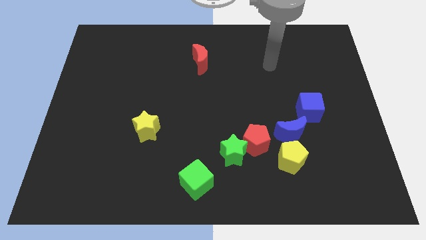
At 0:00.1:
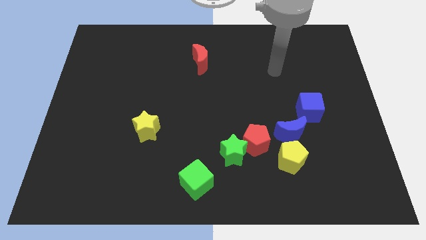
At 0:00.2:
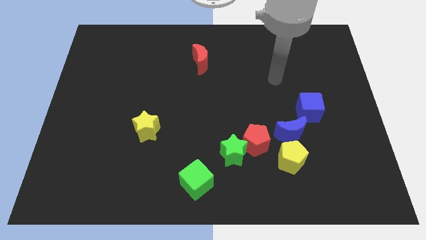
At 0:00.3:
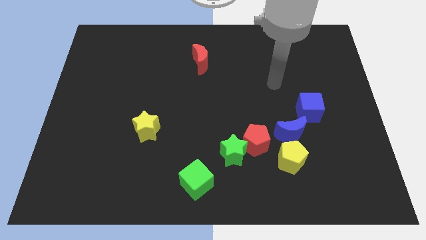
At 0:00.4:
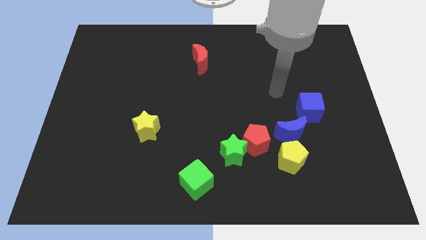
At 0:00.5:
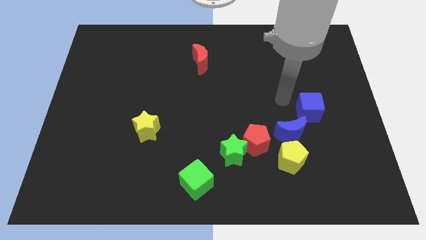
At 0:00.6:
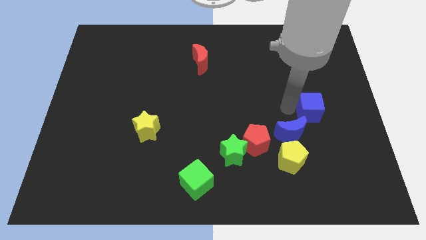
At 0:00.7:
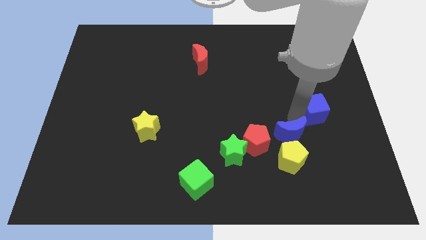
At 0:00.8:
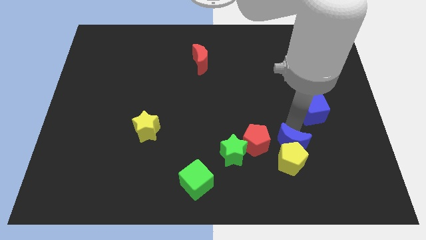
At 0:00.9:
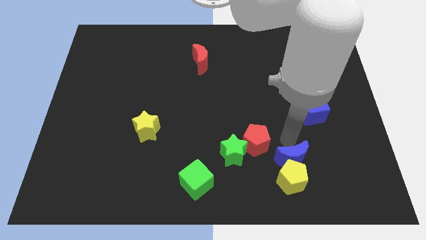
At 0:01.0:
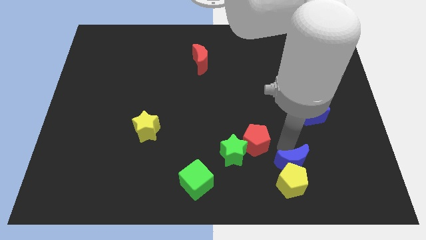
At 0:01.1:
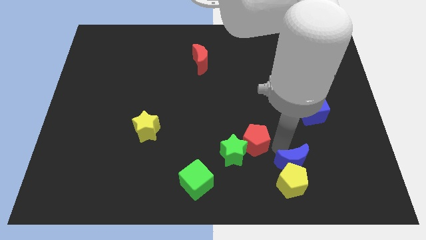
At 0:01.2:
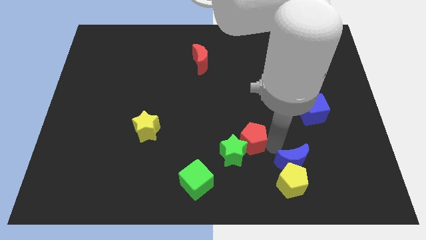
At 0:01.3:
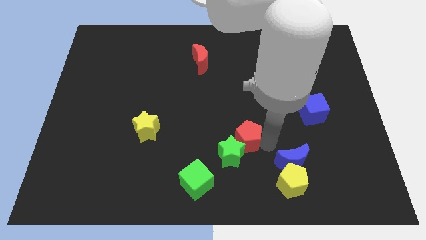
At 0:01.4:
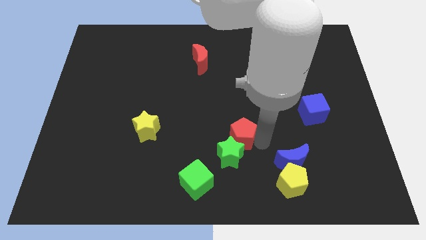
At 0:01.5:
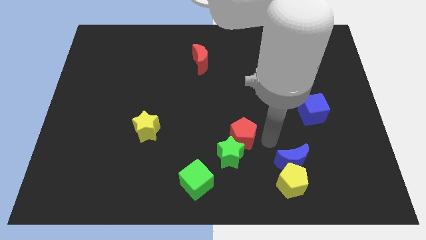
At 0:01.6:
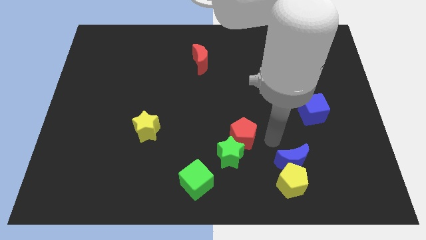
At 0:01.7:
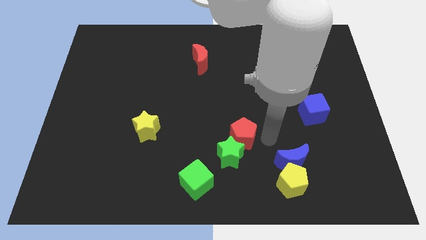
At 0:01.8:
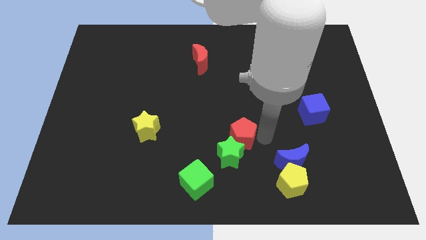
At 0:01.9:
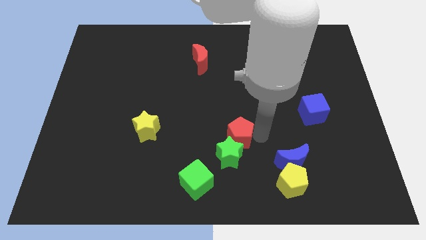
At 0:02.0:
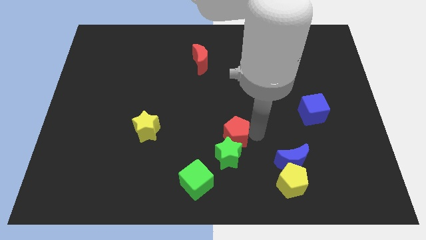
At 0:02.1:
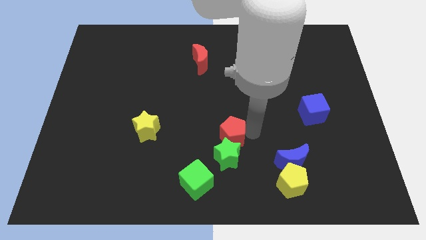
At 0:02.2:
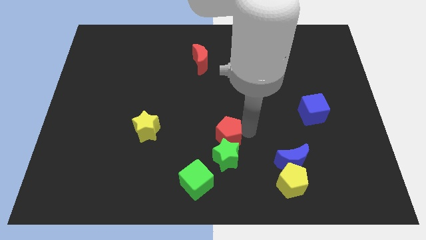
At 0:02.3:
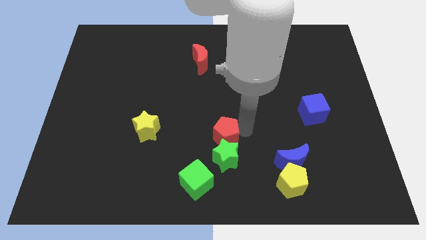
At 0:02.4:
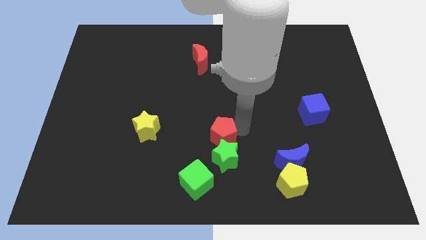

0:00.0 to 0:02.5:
slide the red pentagon somewhat to the left

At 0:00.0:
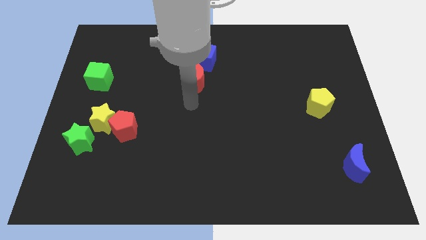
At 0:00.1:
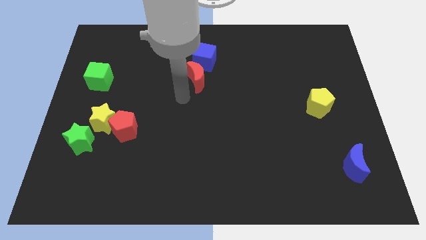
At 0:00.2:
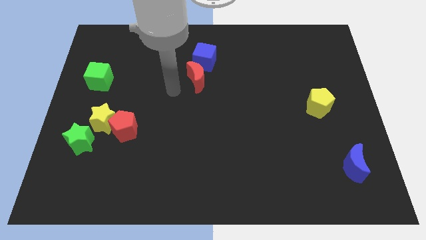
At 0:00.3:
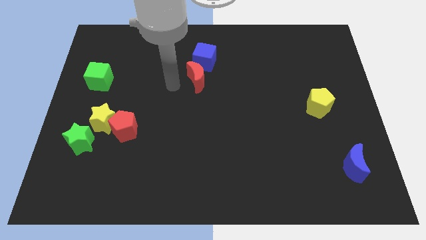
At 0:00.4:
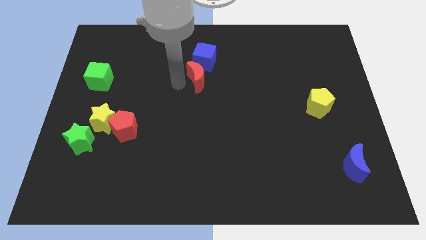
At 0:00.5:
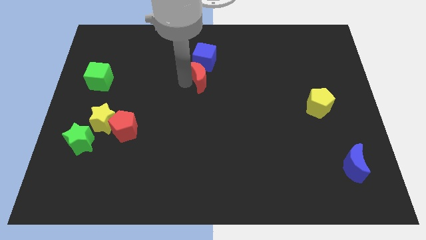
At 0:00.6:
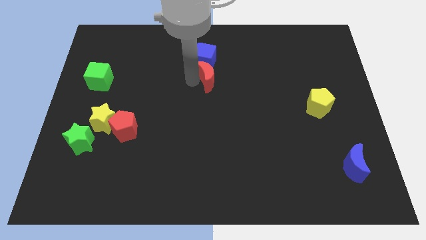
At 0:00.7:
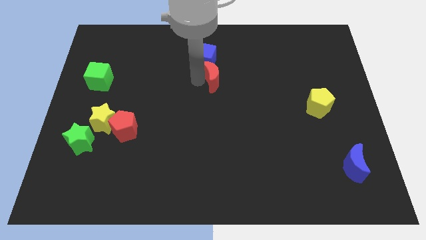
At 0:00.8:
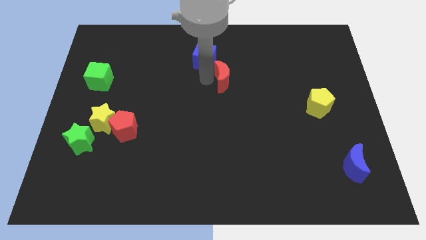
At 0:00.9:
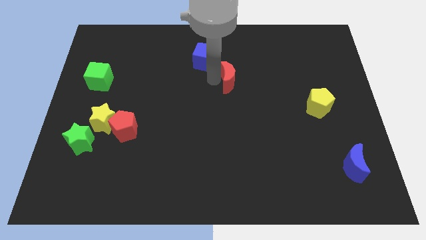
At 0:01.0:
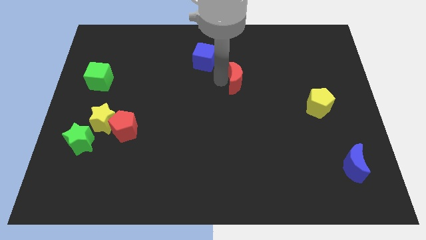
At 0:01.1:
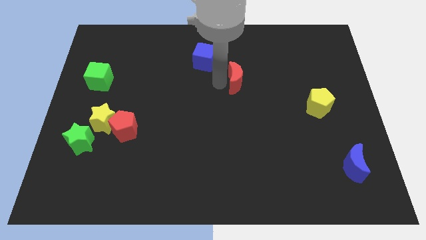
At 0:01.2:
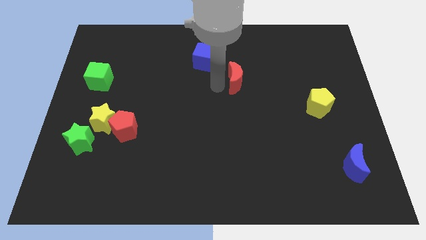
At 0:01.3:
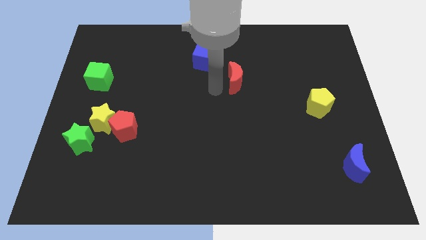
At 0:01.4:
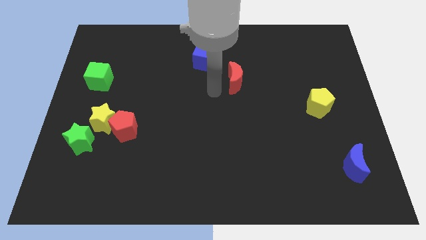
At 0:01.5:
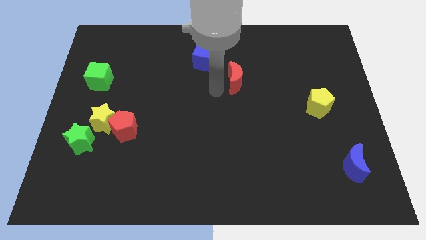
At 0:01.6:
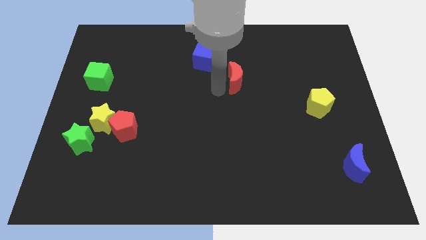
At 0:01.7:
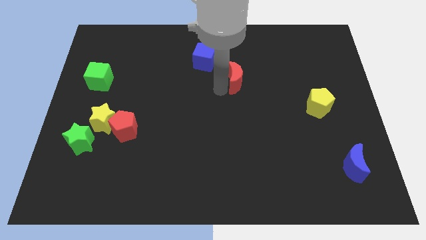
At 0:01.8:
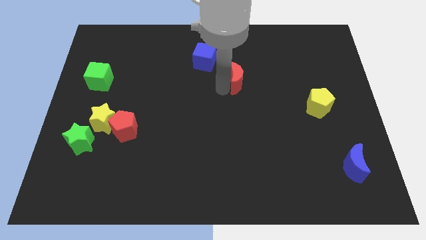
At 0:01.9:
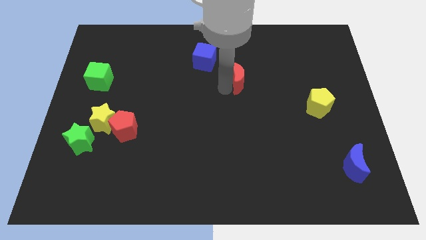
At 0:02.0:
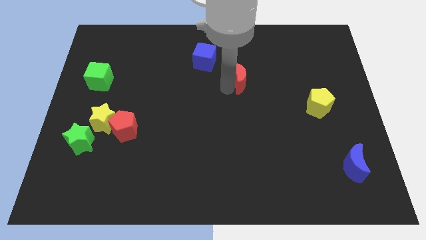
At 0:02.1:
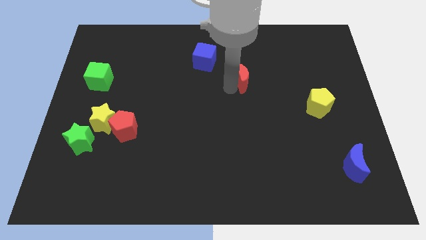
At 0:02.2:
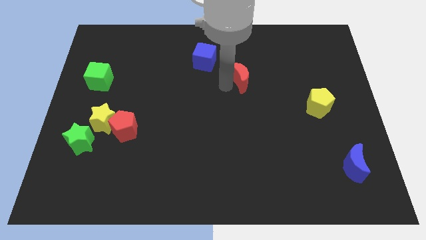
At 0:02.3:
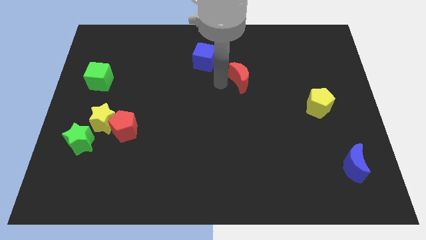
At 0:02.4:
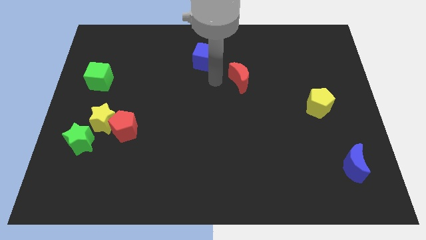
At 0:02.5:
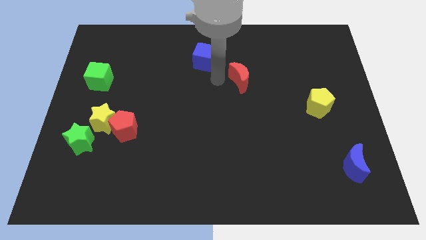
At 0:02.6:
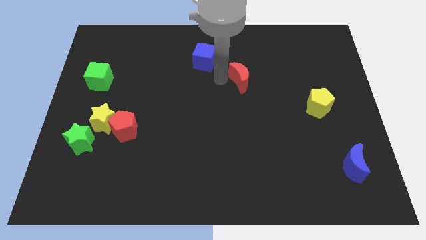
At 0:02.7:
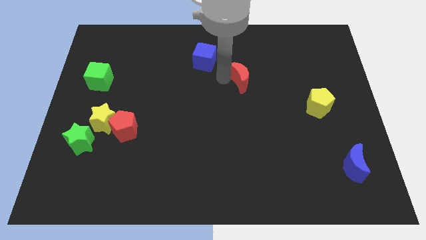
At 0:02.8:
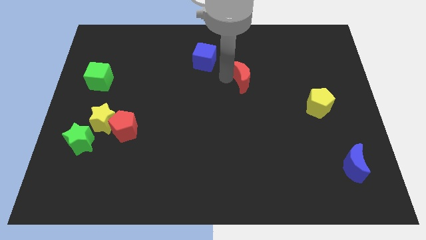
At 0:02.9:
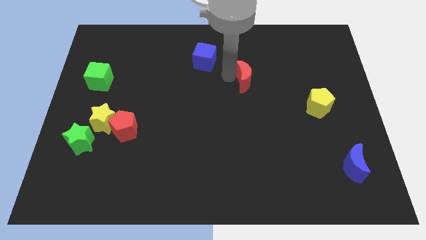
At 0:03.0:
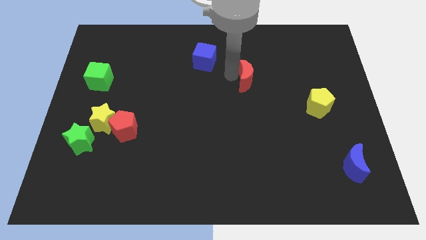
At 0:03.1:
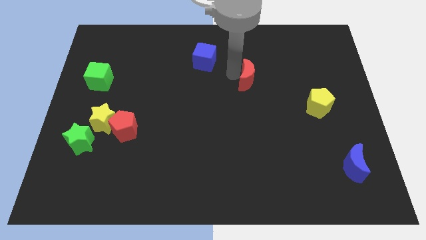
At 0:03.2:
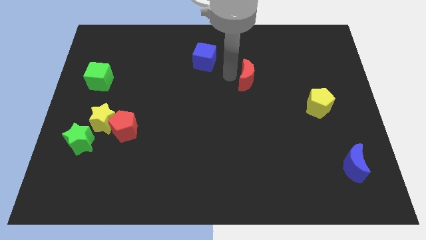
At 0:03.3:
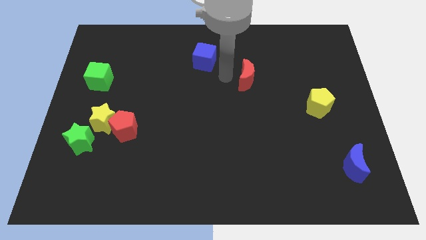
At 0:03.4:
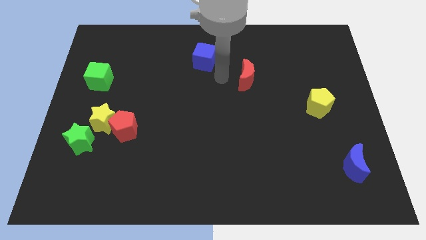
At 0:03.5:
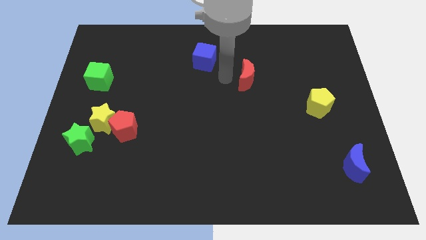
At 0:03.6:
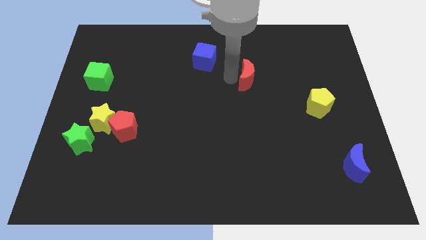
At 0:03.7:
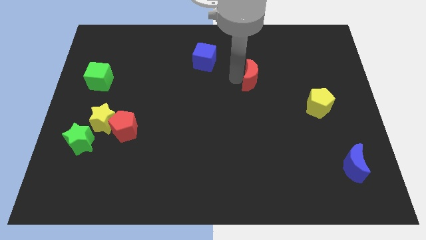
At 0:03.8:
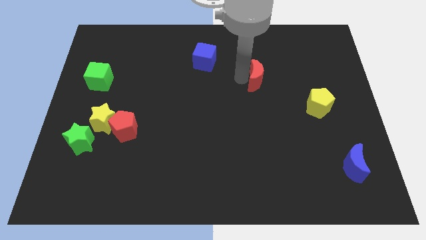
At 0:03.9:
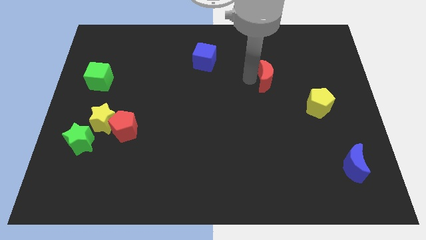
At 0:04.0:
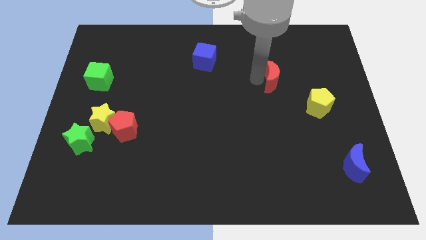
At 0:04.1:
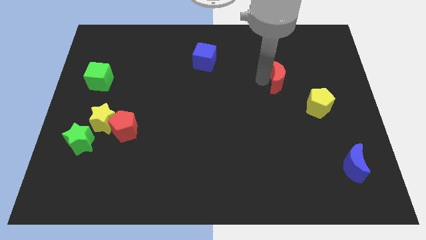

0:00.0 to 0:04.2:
move the red moon to the right

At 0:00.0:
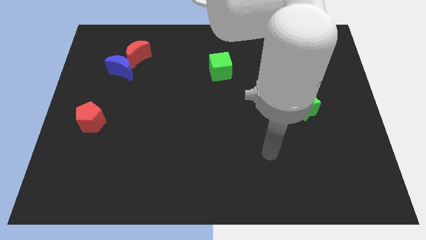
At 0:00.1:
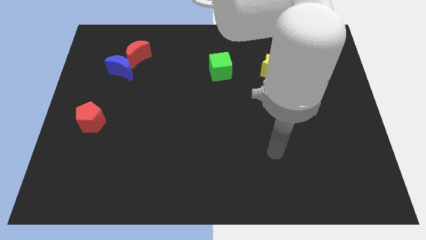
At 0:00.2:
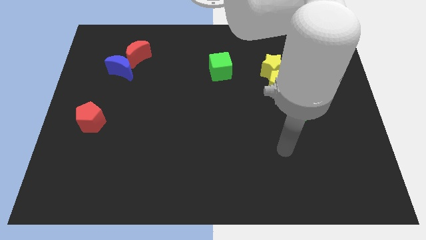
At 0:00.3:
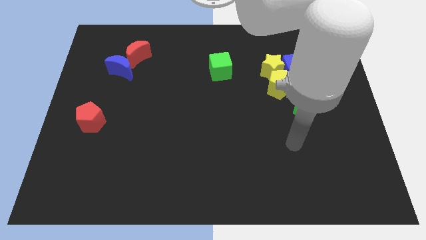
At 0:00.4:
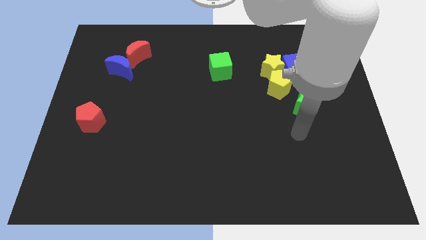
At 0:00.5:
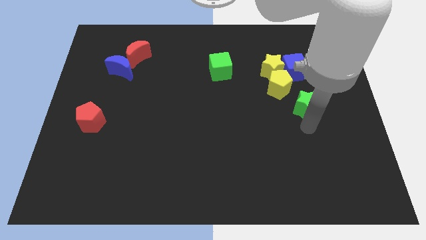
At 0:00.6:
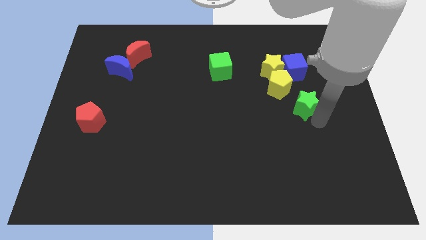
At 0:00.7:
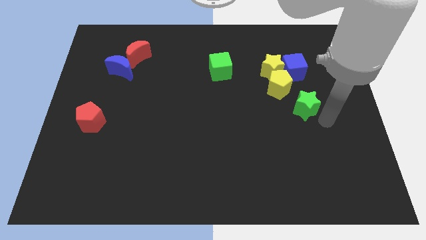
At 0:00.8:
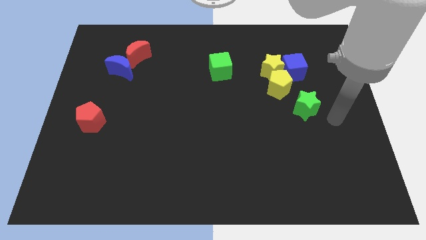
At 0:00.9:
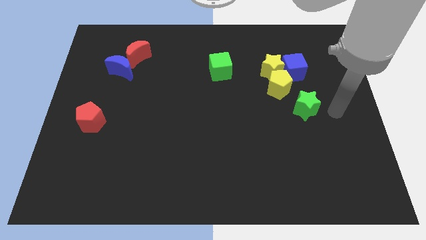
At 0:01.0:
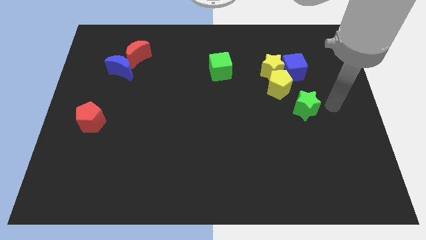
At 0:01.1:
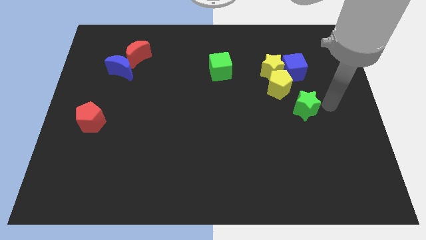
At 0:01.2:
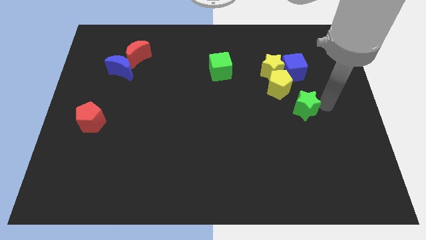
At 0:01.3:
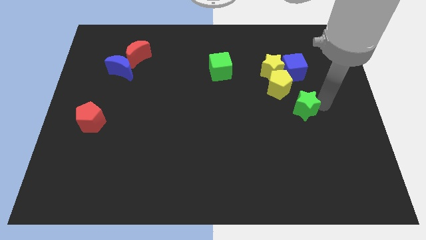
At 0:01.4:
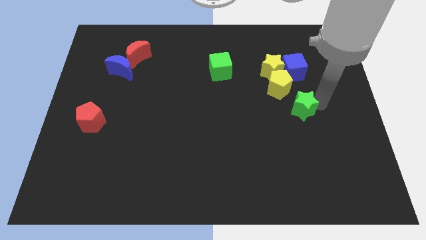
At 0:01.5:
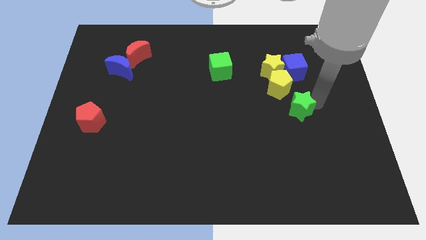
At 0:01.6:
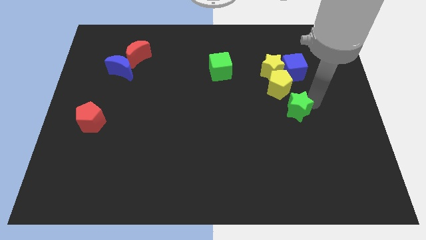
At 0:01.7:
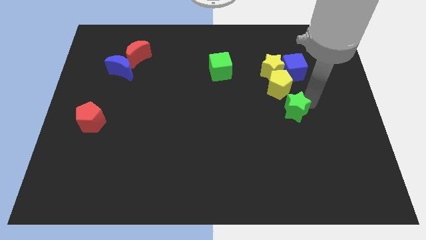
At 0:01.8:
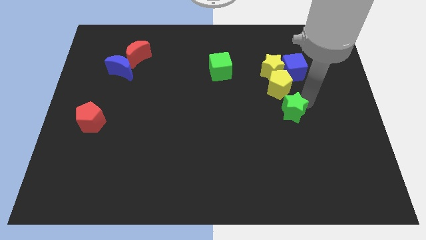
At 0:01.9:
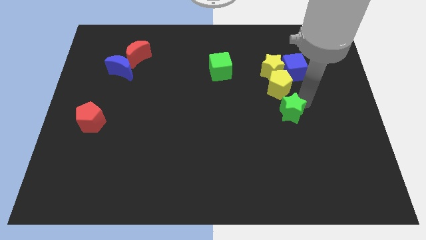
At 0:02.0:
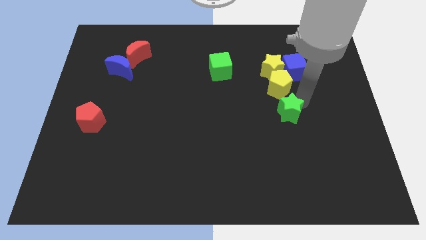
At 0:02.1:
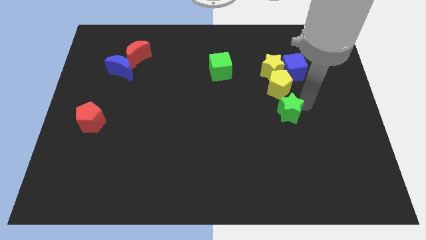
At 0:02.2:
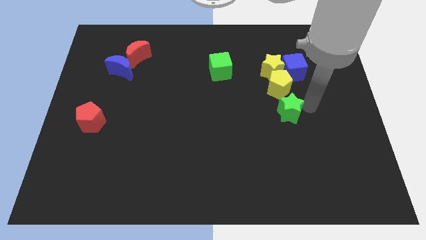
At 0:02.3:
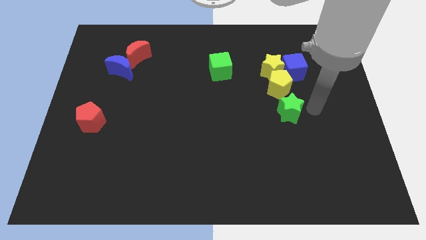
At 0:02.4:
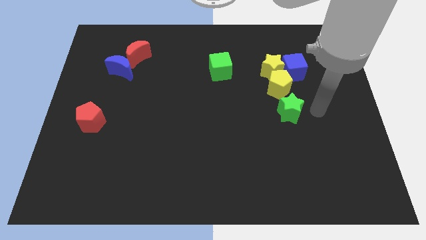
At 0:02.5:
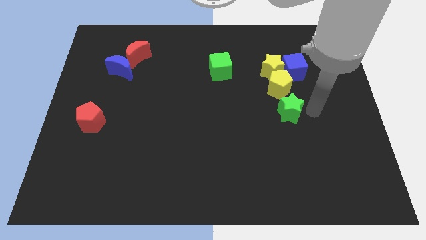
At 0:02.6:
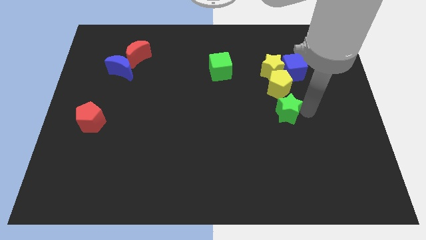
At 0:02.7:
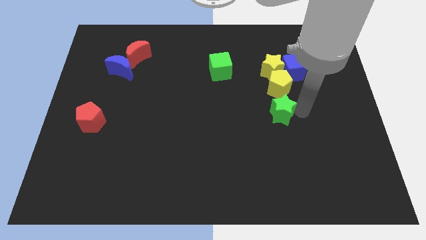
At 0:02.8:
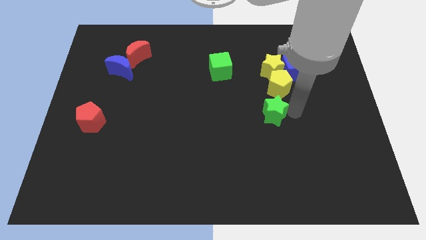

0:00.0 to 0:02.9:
move the green star to the left a bit
